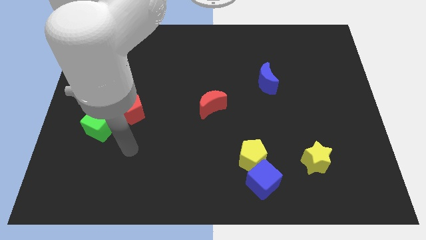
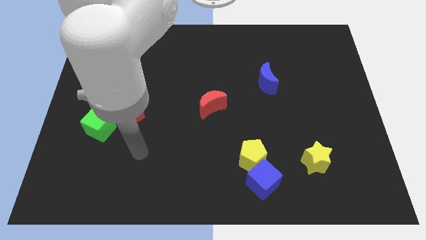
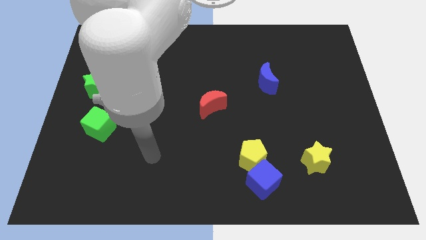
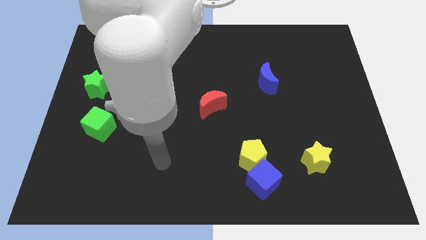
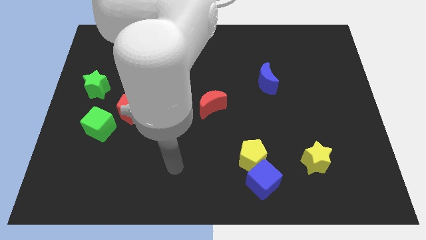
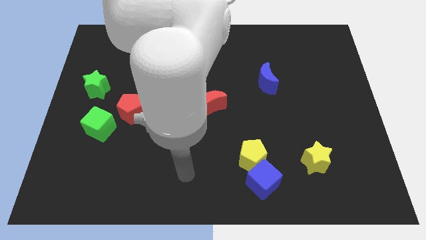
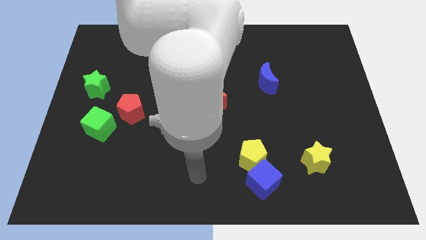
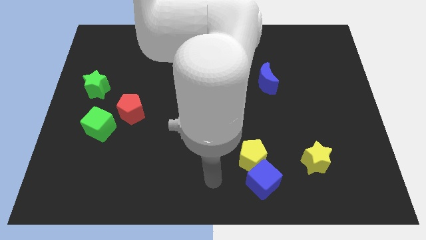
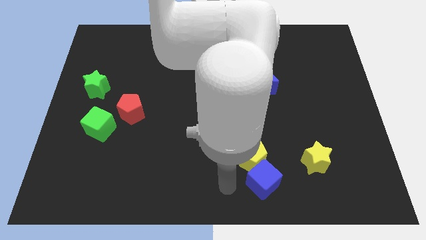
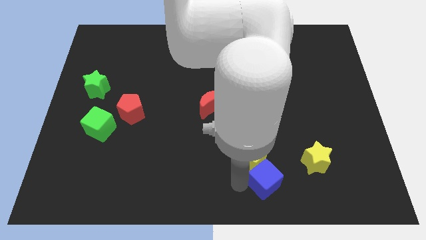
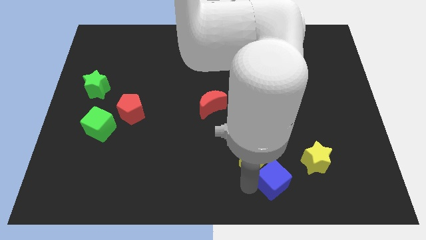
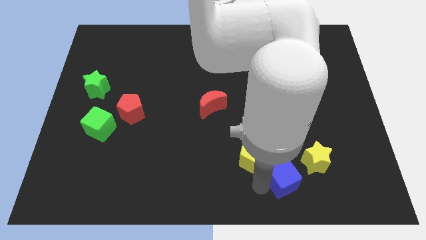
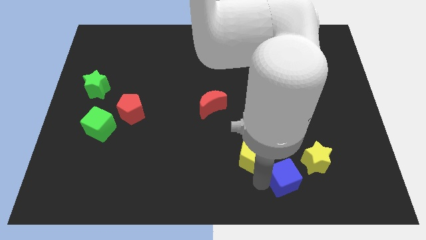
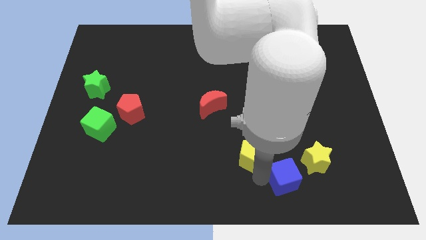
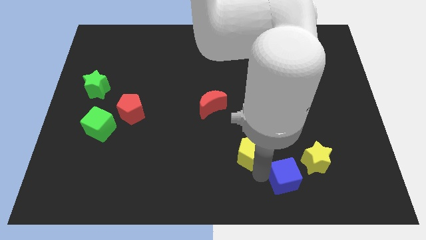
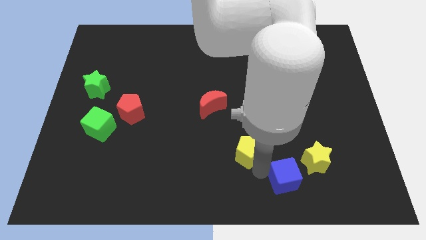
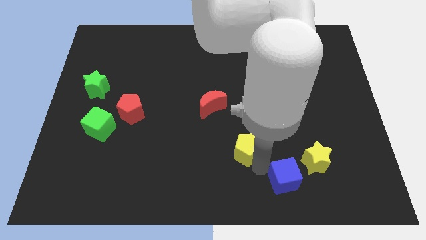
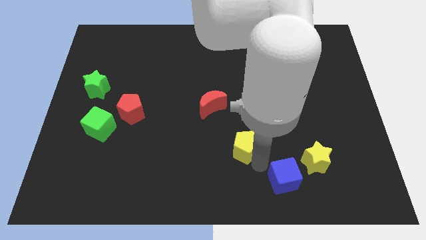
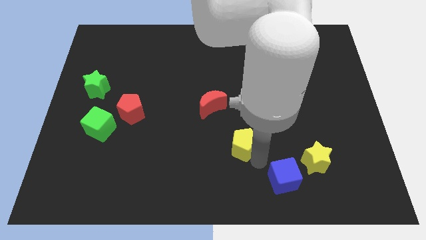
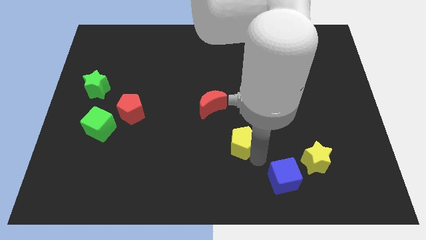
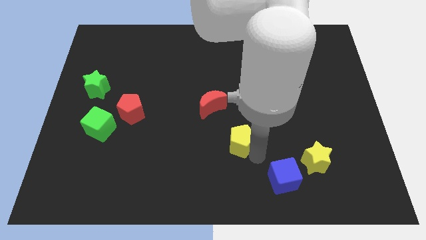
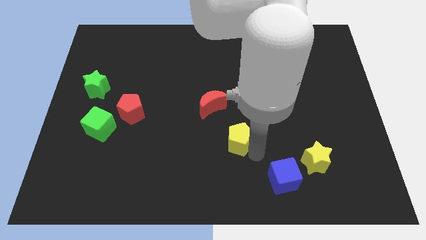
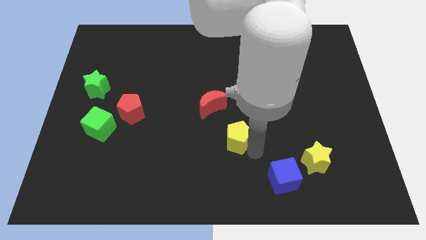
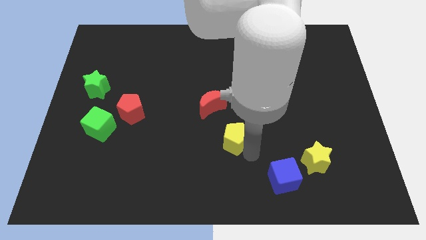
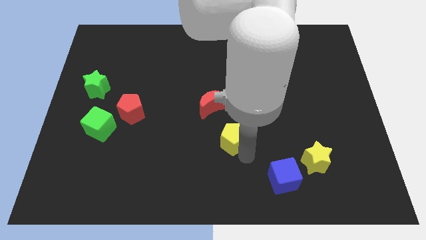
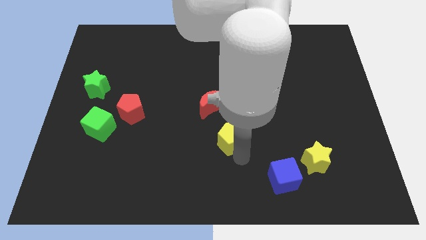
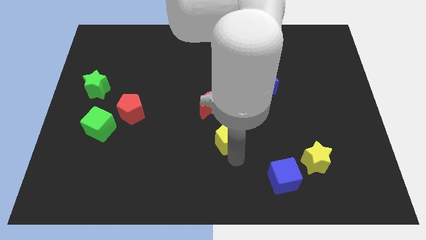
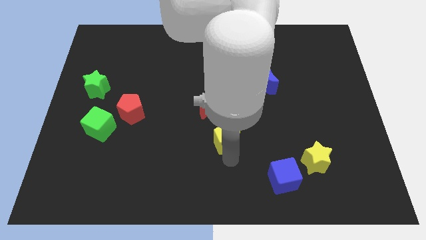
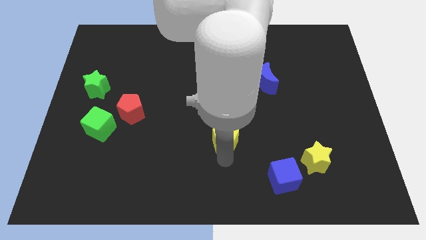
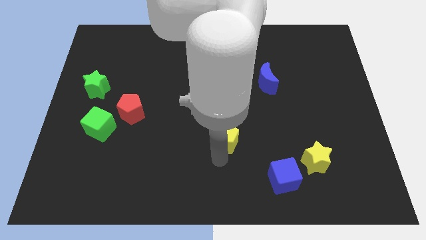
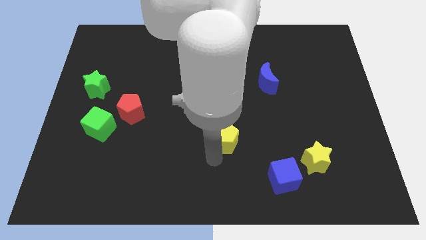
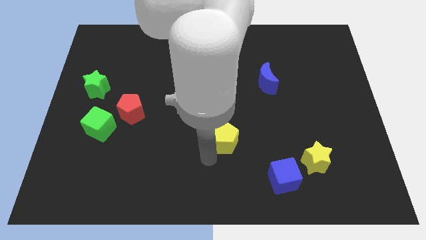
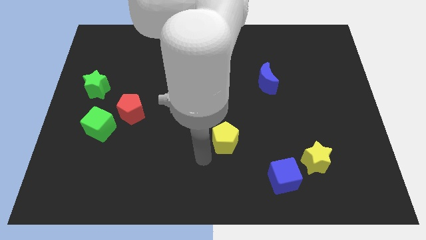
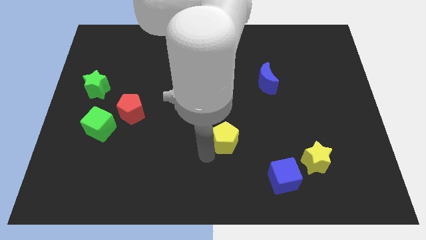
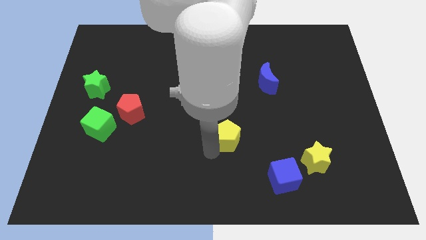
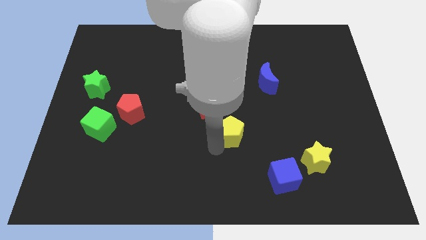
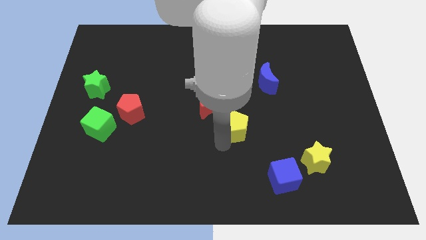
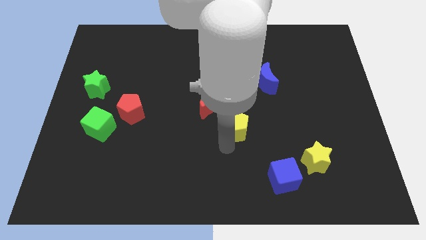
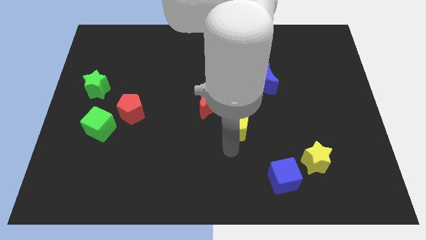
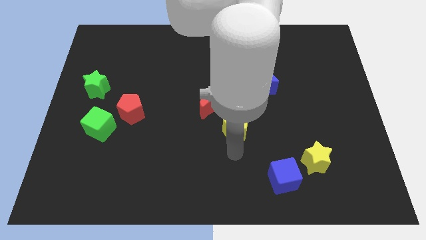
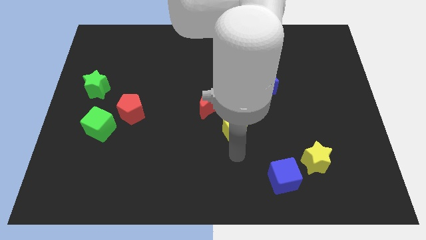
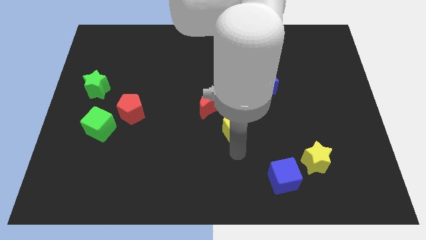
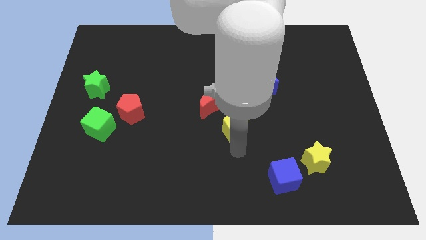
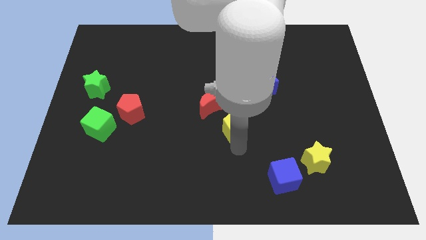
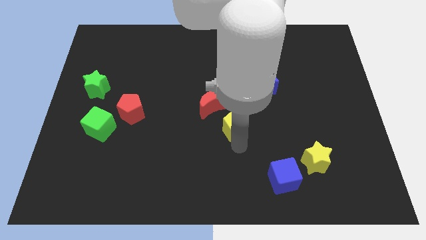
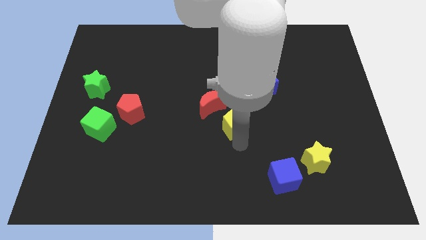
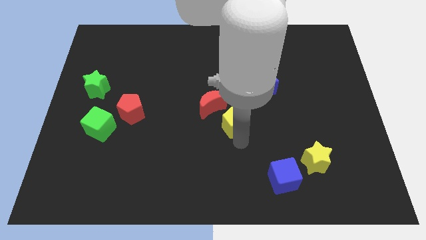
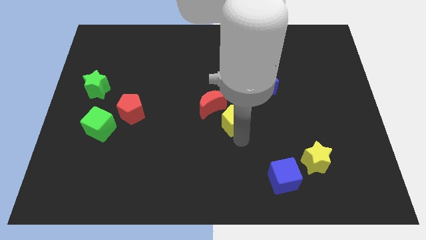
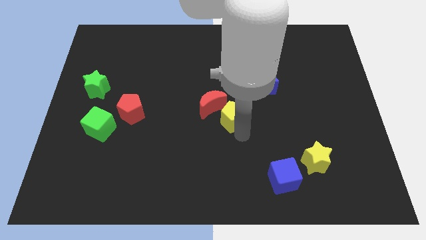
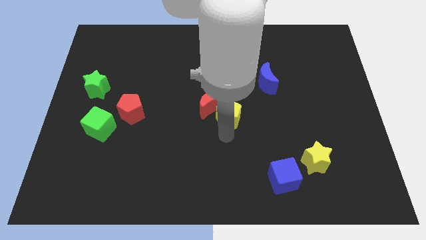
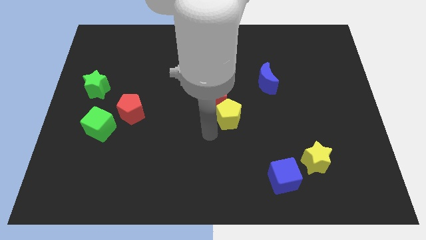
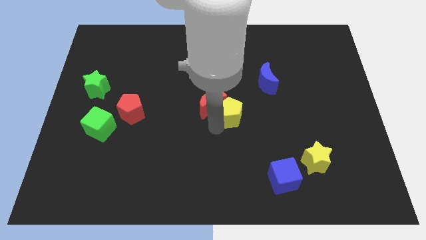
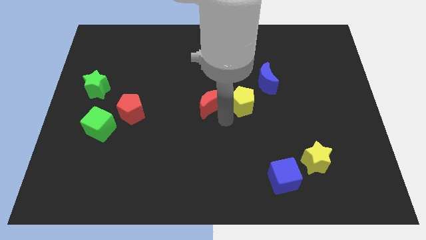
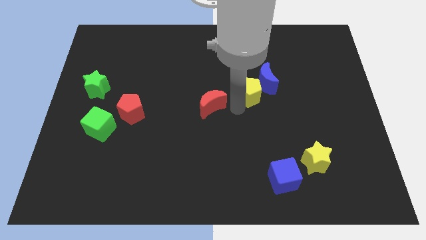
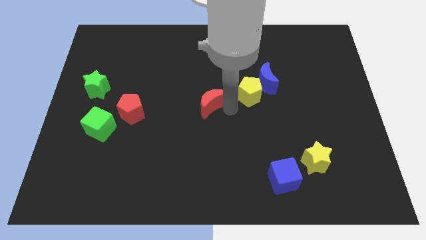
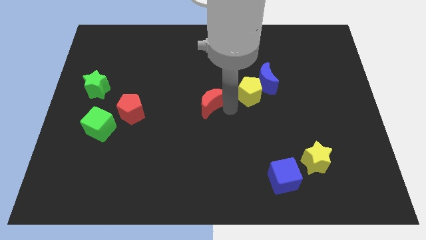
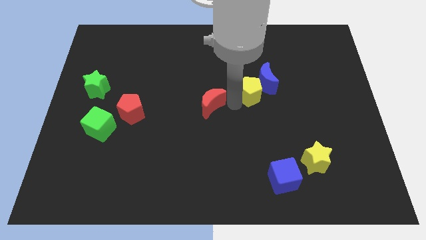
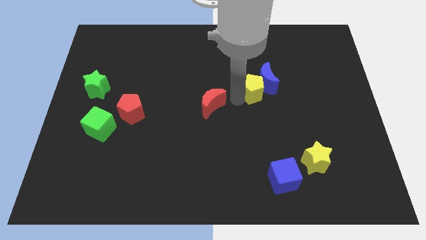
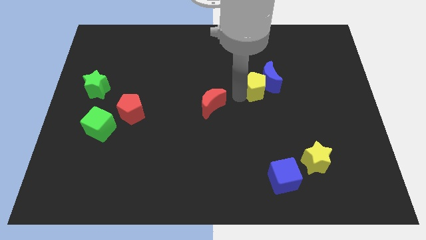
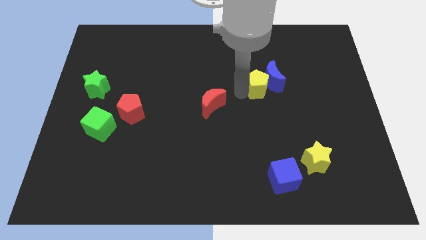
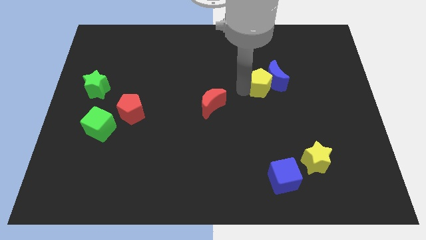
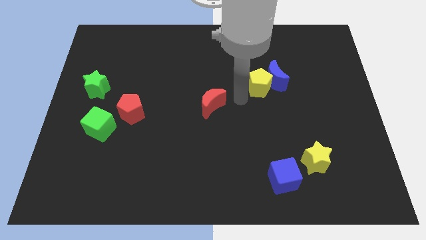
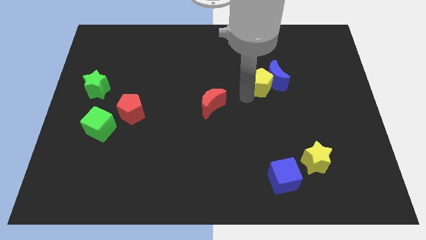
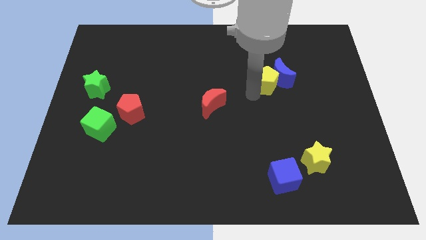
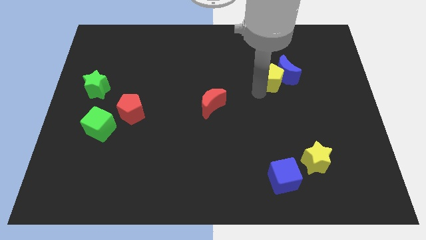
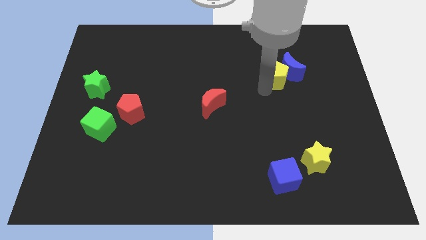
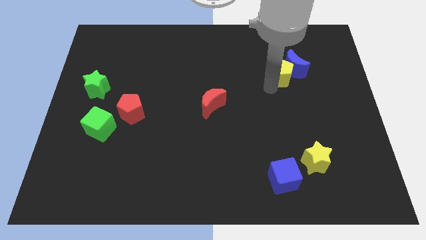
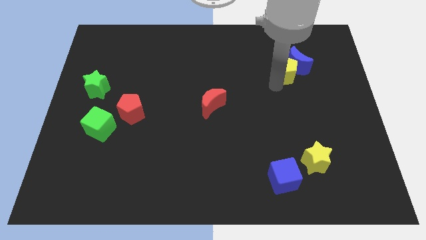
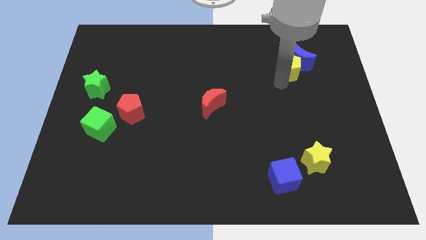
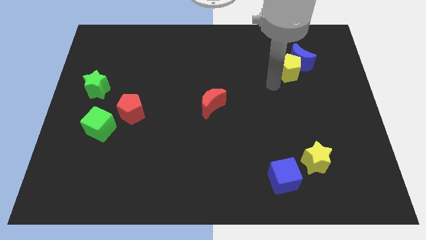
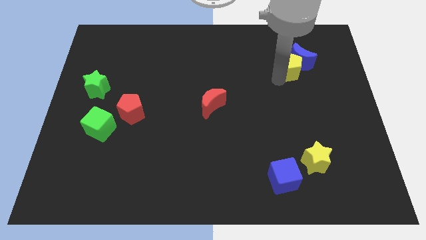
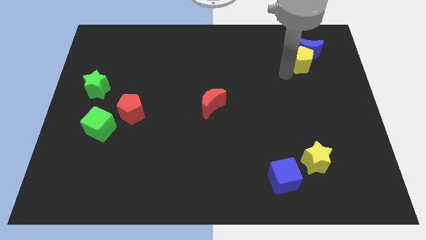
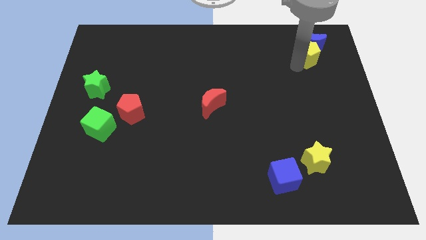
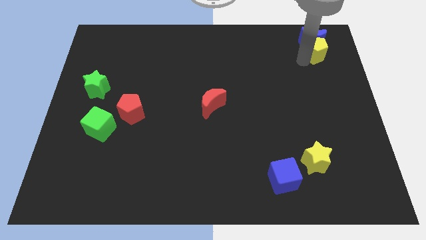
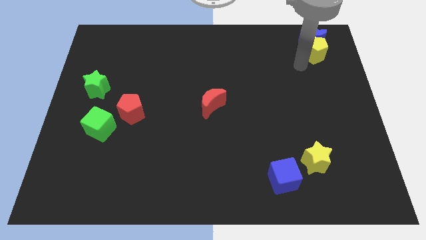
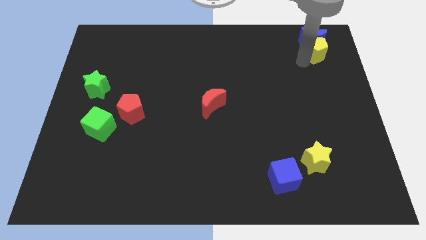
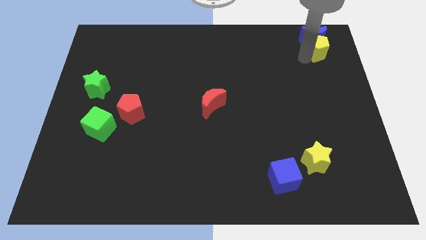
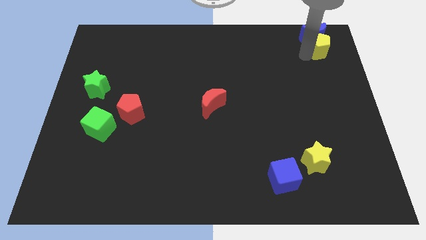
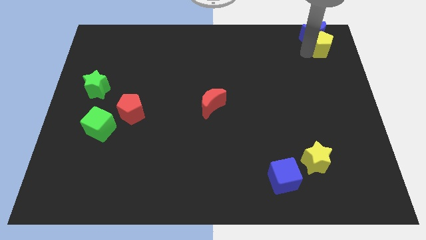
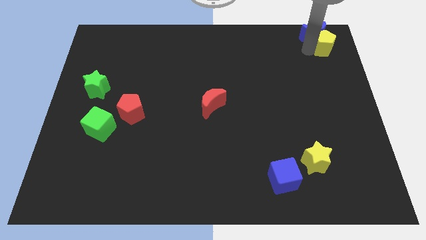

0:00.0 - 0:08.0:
move the yellow pentagon to the top right
